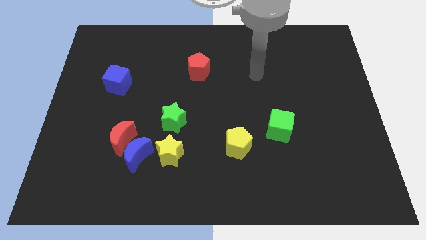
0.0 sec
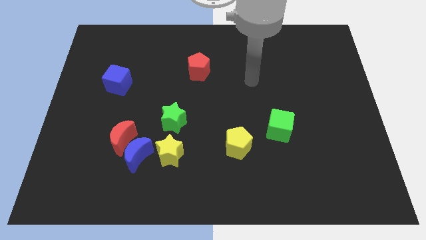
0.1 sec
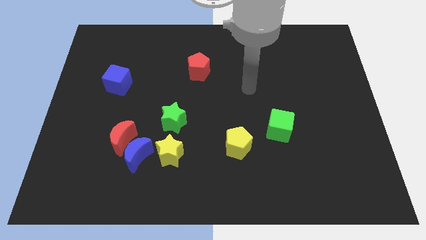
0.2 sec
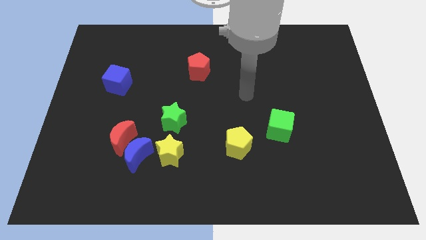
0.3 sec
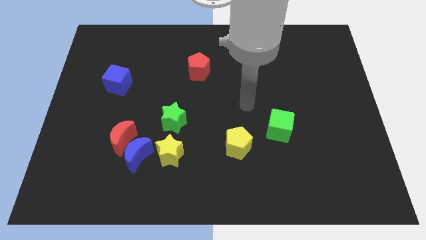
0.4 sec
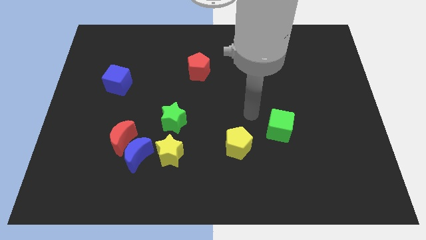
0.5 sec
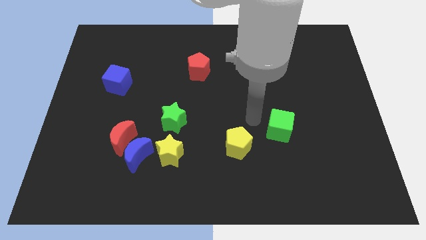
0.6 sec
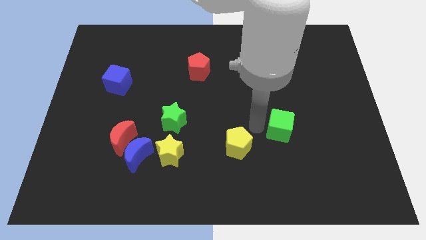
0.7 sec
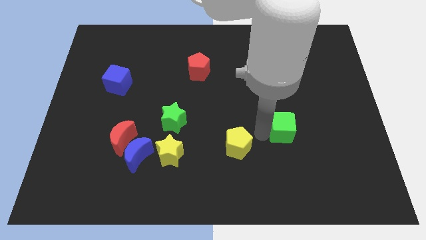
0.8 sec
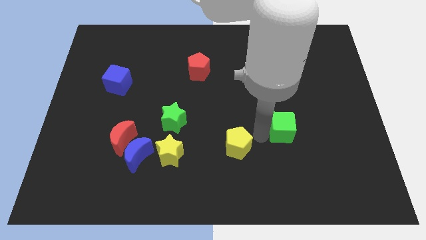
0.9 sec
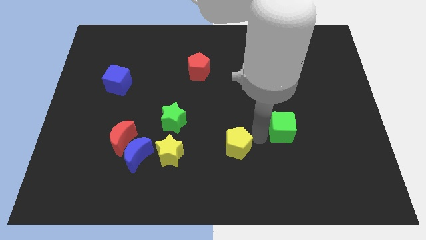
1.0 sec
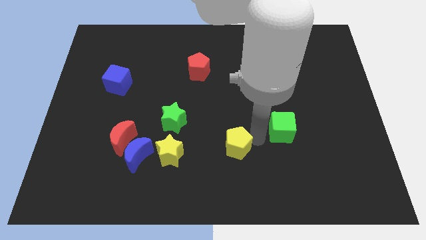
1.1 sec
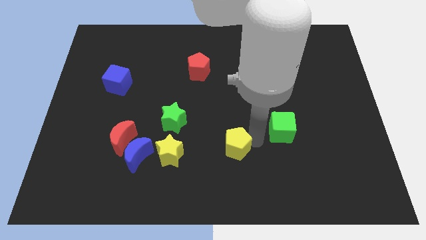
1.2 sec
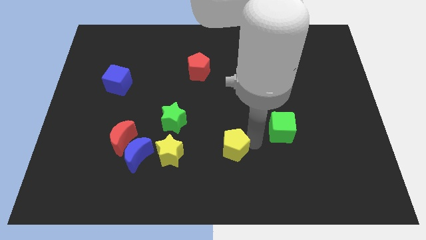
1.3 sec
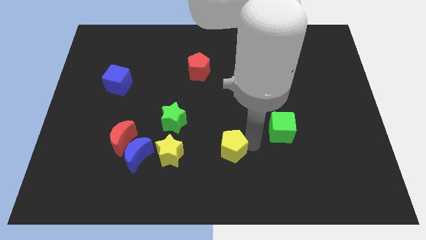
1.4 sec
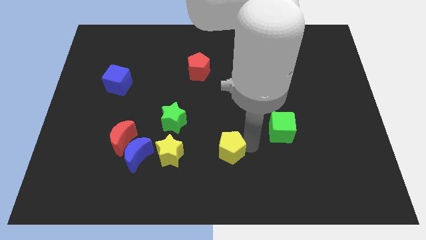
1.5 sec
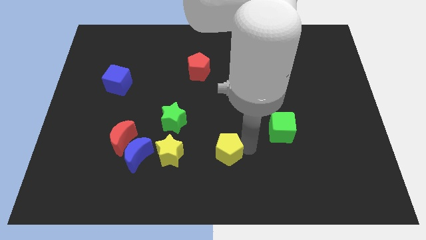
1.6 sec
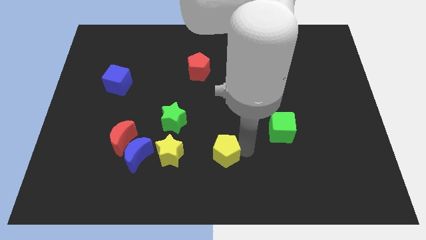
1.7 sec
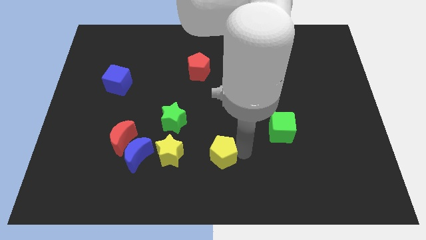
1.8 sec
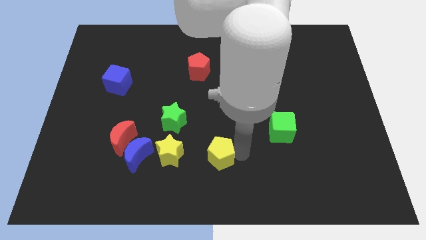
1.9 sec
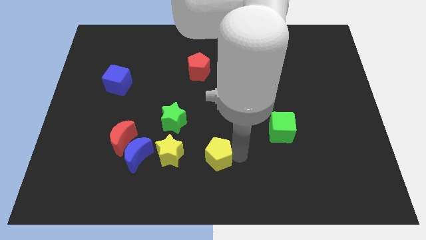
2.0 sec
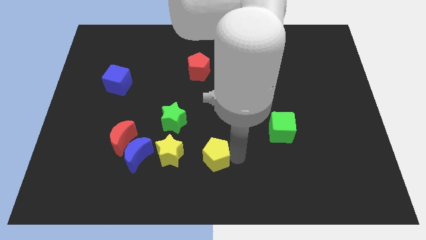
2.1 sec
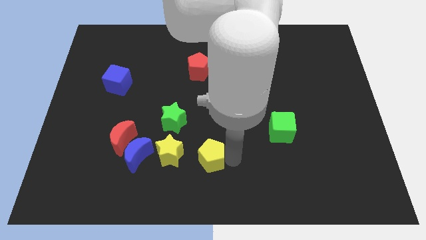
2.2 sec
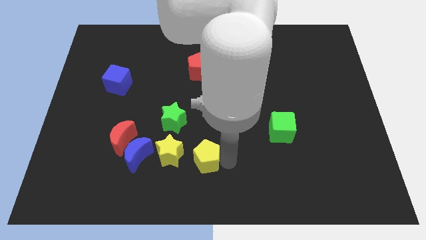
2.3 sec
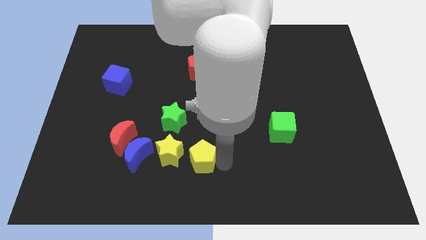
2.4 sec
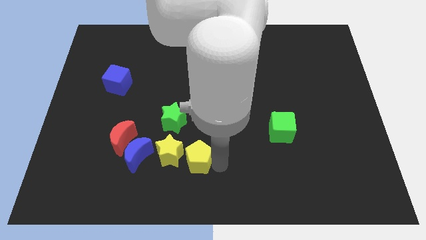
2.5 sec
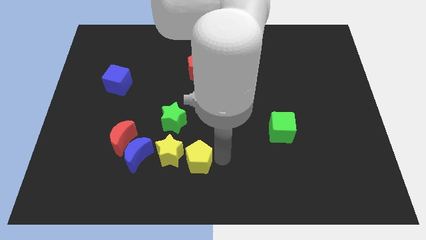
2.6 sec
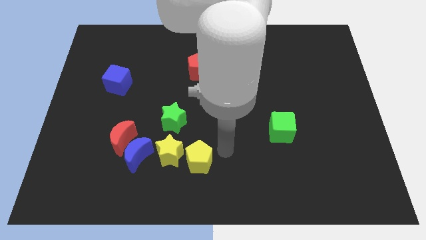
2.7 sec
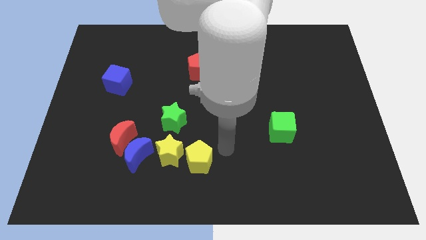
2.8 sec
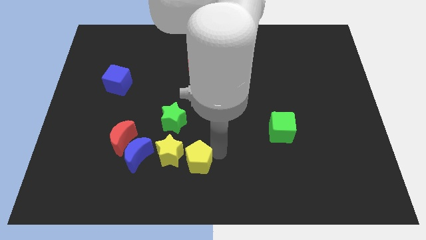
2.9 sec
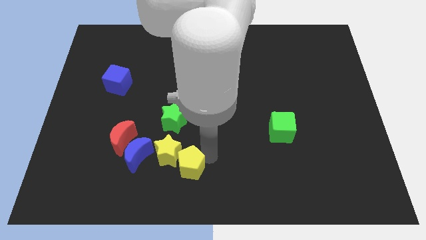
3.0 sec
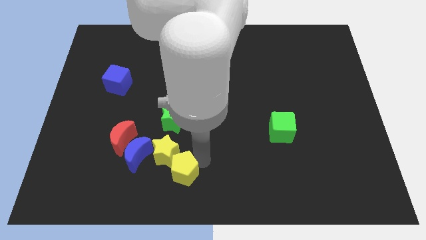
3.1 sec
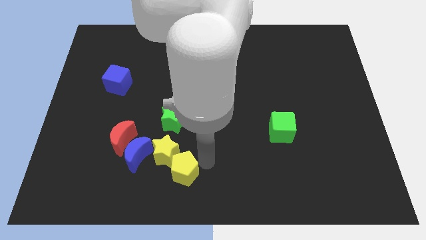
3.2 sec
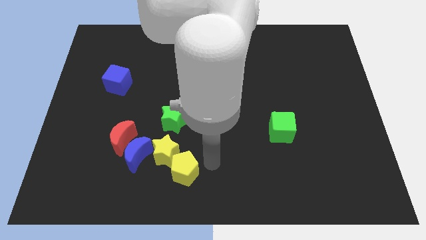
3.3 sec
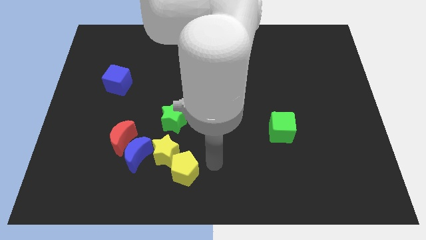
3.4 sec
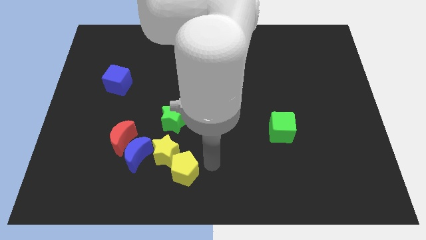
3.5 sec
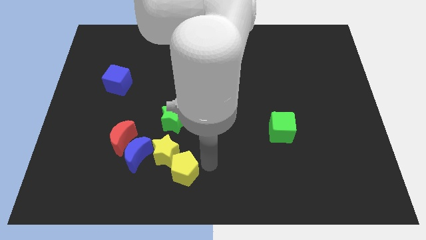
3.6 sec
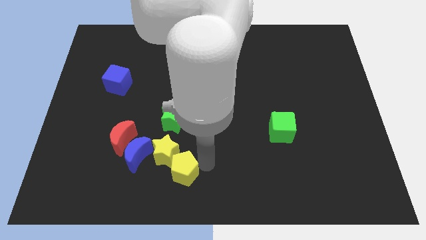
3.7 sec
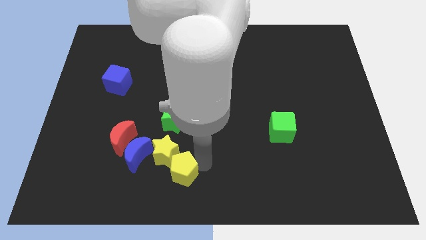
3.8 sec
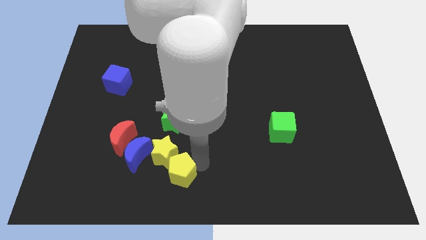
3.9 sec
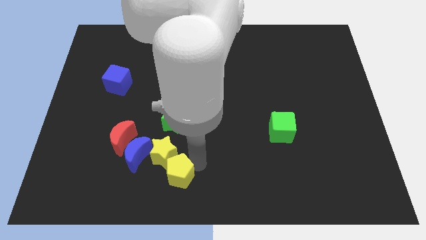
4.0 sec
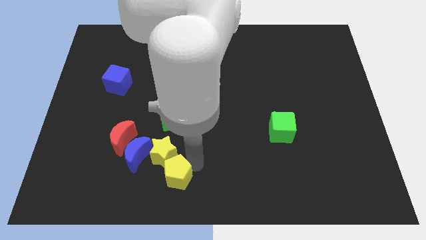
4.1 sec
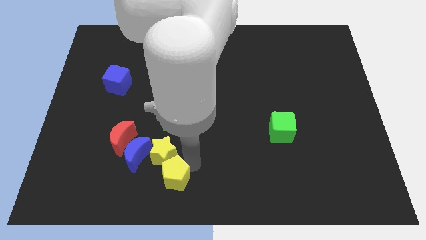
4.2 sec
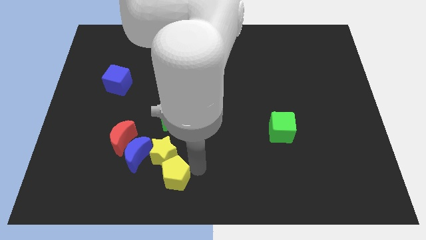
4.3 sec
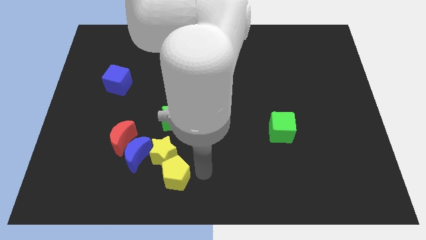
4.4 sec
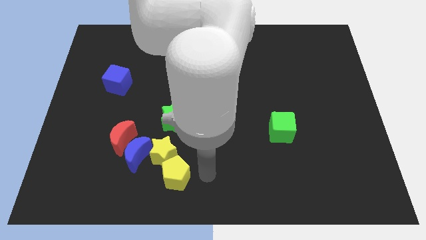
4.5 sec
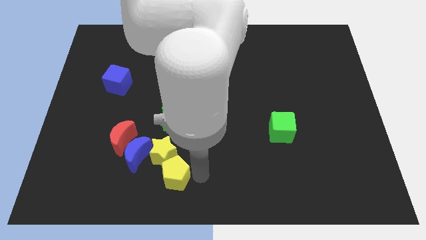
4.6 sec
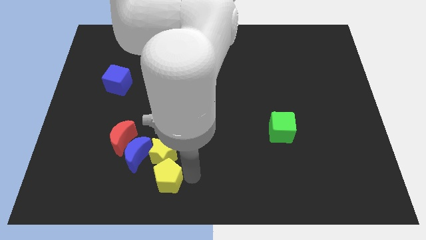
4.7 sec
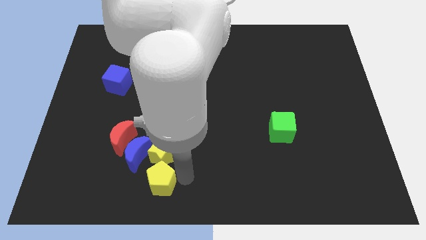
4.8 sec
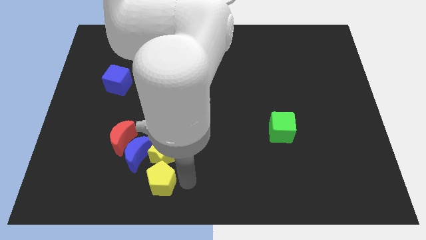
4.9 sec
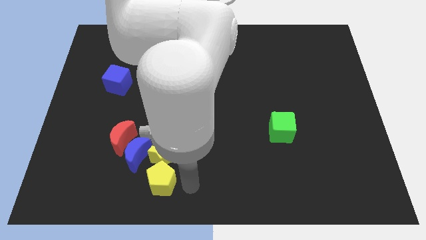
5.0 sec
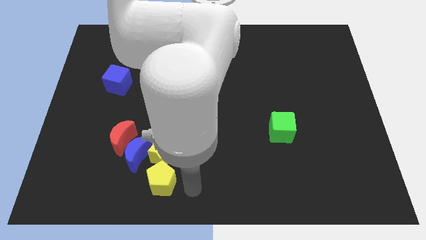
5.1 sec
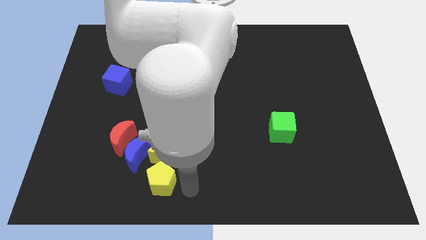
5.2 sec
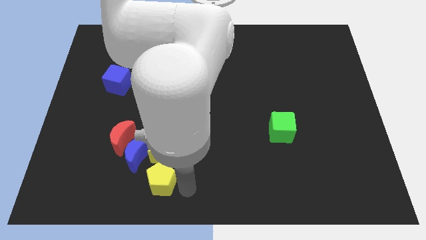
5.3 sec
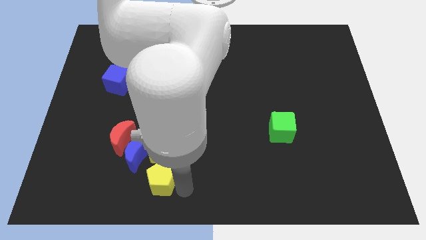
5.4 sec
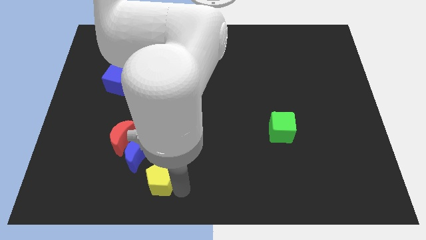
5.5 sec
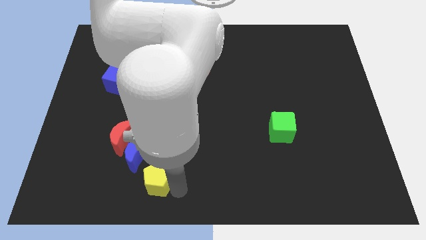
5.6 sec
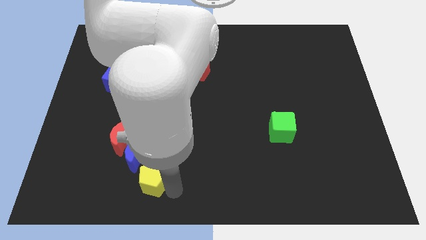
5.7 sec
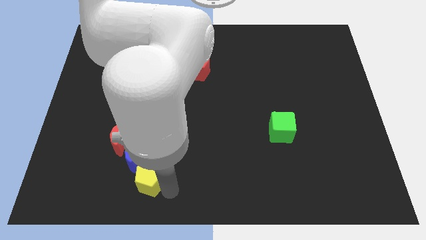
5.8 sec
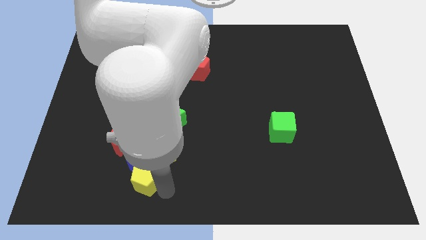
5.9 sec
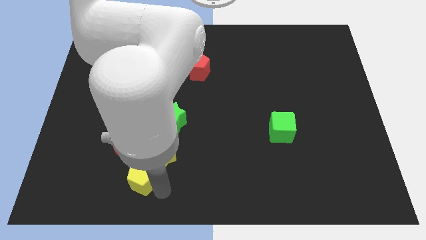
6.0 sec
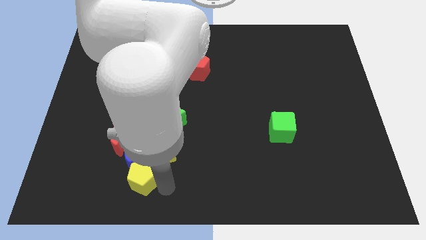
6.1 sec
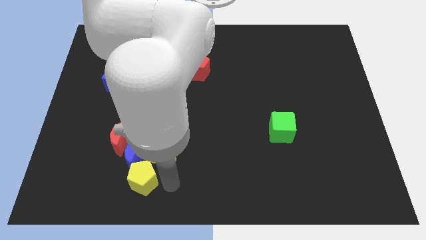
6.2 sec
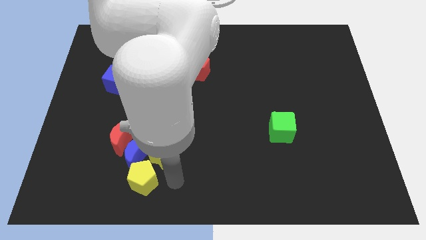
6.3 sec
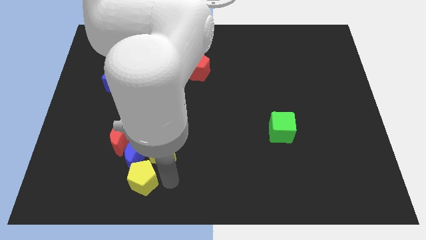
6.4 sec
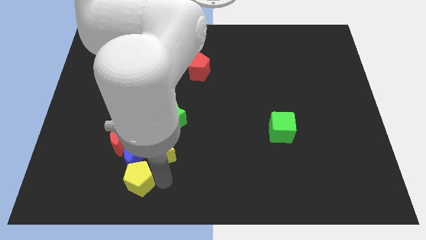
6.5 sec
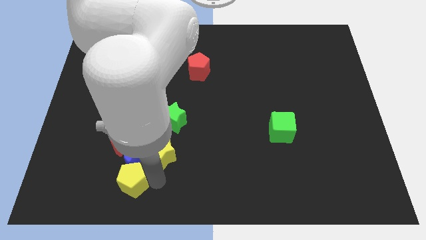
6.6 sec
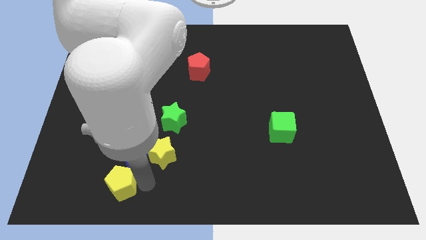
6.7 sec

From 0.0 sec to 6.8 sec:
slide the yellow pentagon to the left

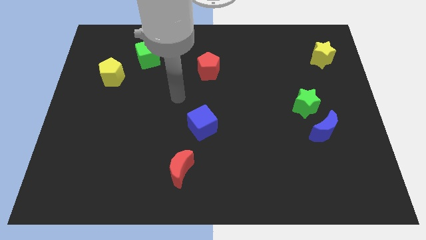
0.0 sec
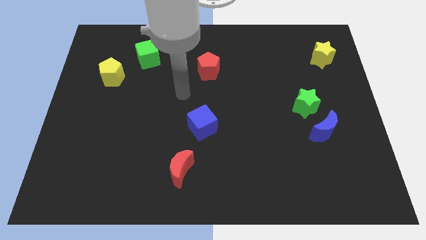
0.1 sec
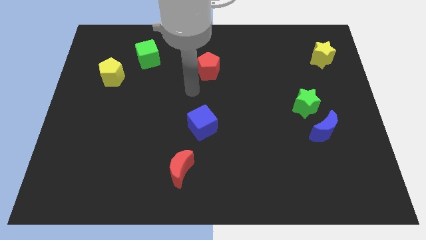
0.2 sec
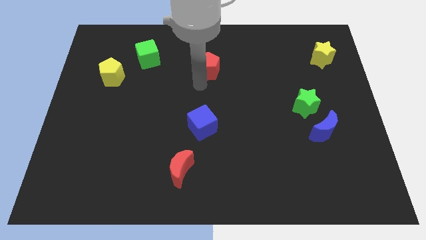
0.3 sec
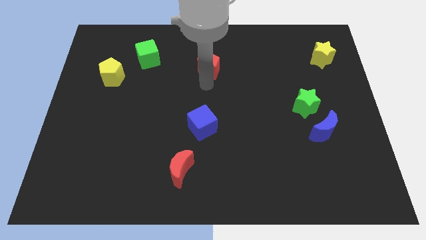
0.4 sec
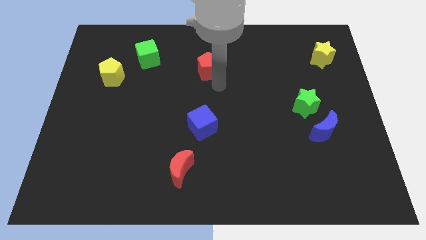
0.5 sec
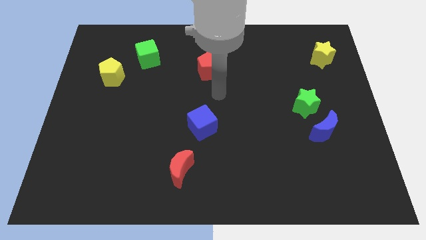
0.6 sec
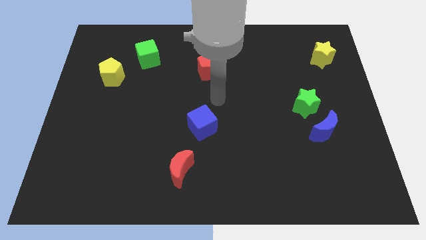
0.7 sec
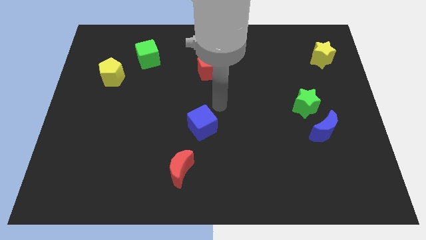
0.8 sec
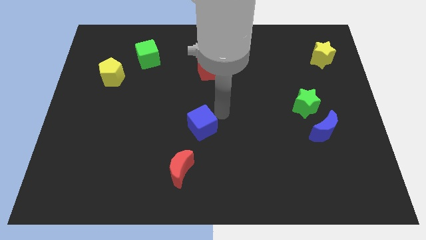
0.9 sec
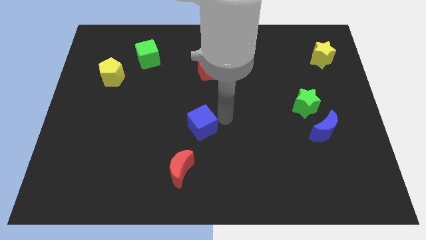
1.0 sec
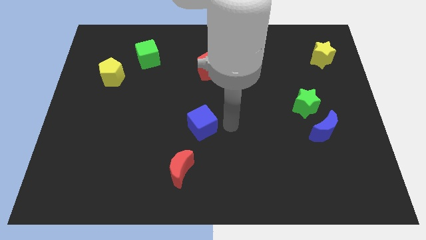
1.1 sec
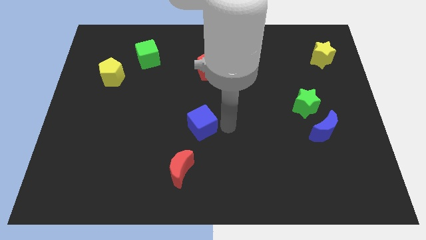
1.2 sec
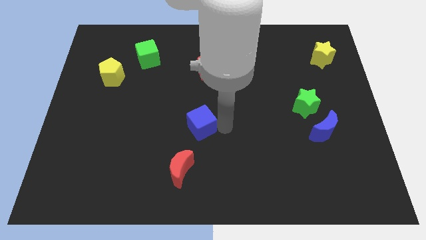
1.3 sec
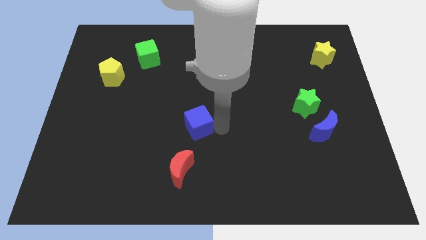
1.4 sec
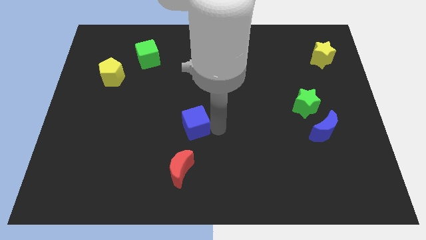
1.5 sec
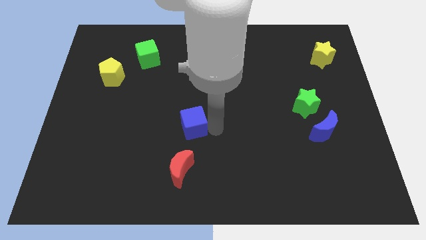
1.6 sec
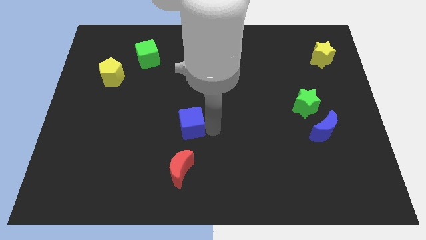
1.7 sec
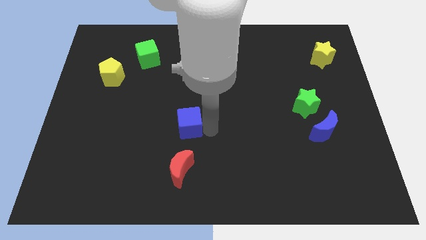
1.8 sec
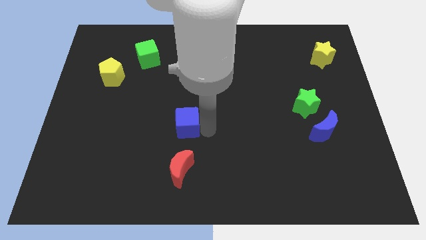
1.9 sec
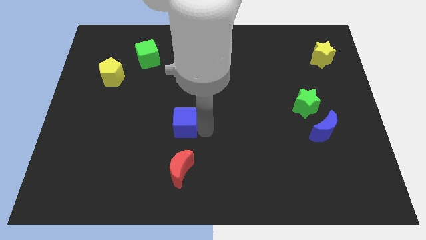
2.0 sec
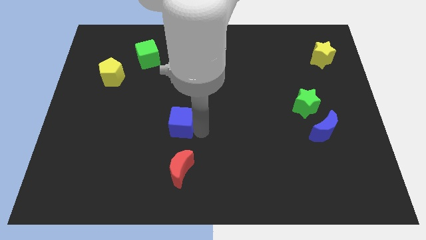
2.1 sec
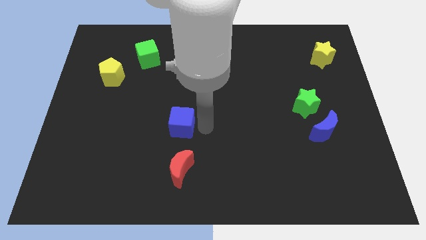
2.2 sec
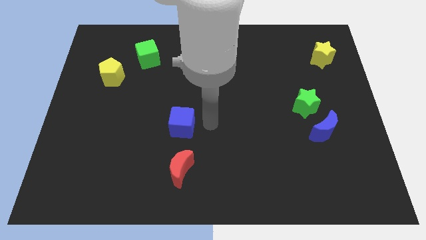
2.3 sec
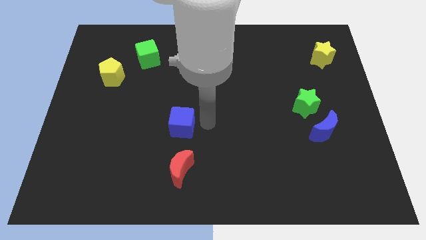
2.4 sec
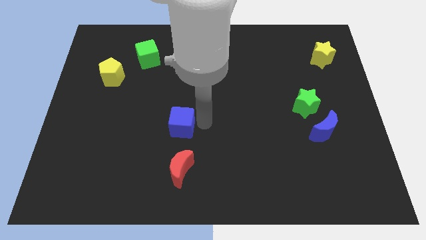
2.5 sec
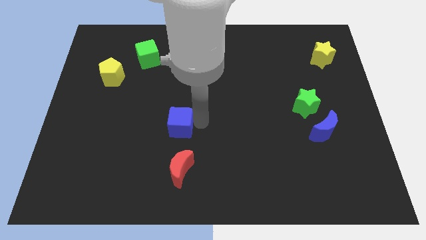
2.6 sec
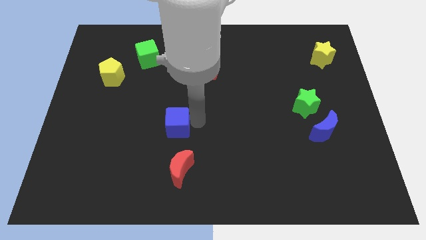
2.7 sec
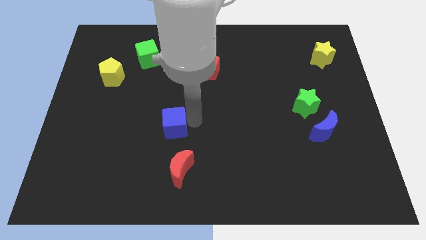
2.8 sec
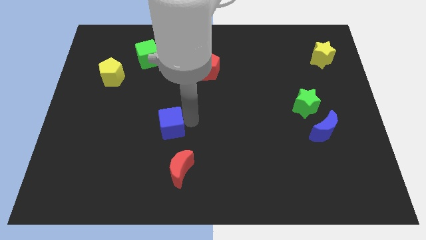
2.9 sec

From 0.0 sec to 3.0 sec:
slightly slide the blue cube to the left
